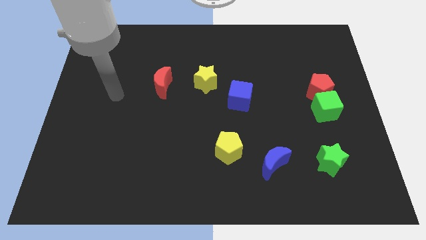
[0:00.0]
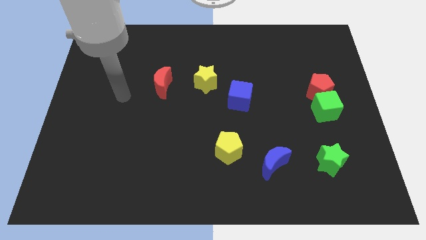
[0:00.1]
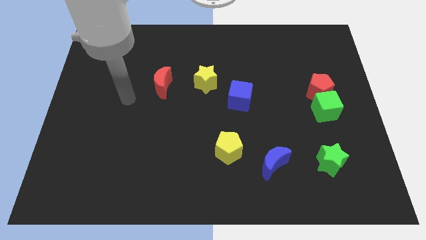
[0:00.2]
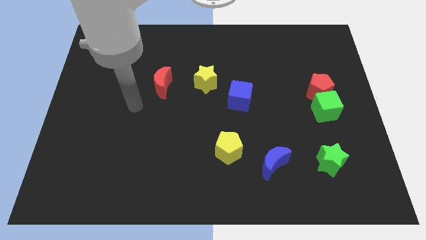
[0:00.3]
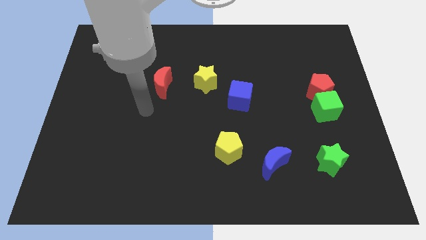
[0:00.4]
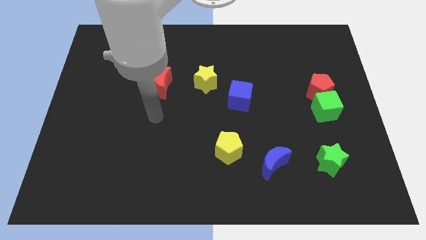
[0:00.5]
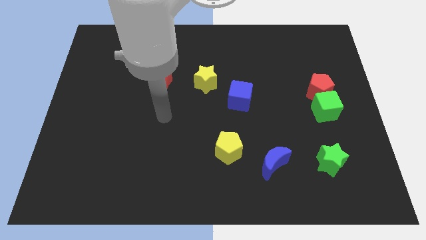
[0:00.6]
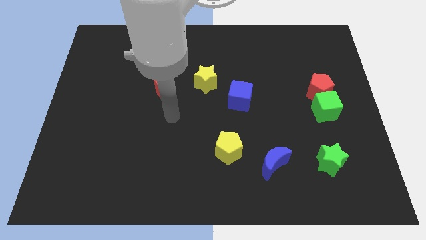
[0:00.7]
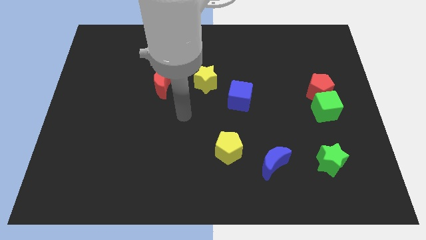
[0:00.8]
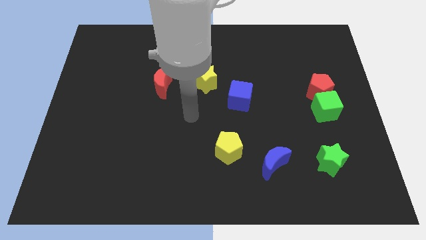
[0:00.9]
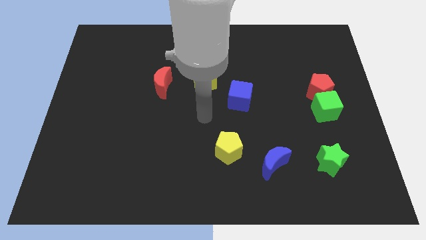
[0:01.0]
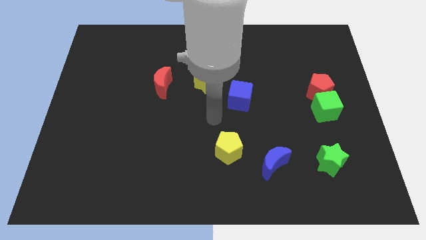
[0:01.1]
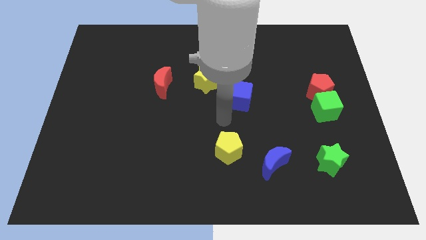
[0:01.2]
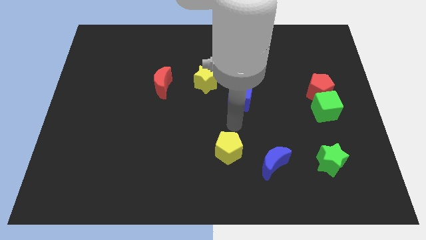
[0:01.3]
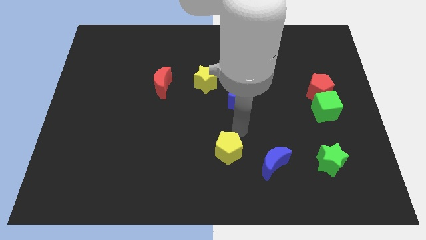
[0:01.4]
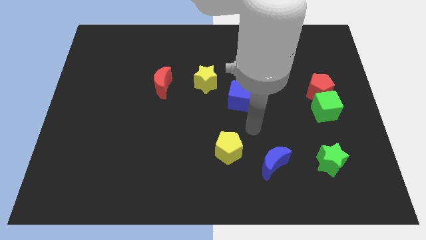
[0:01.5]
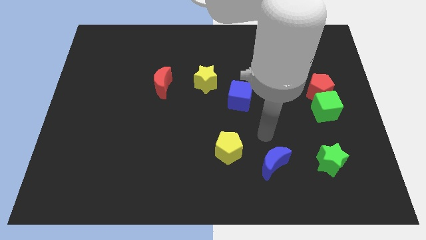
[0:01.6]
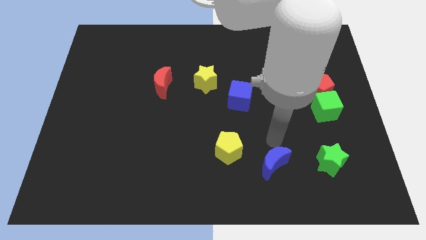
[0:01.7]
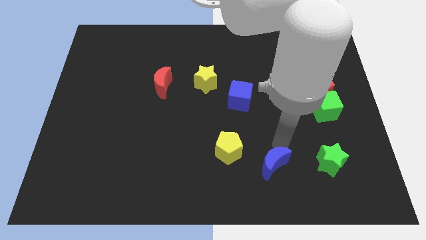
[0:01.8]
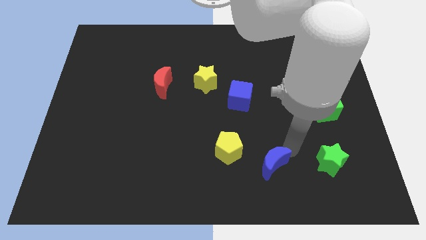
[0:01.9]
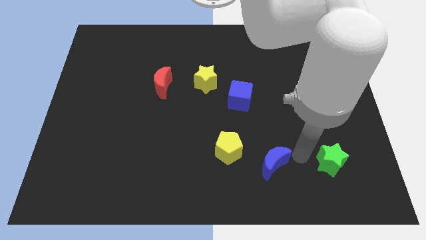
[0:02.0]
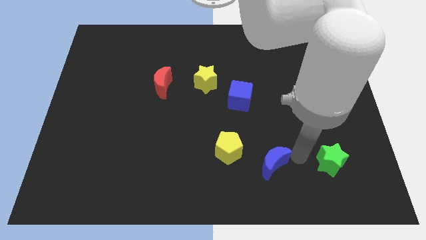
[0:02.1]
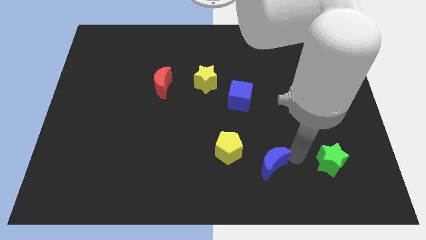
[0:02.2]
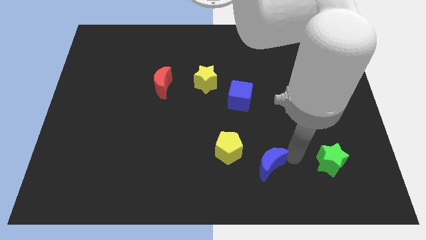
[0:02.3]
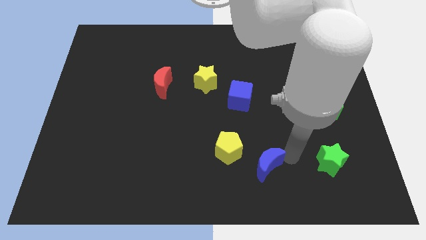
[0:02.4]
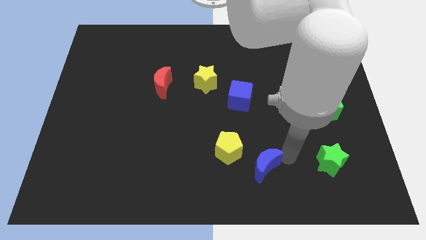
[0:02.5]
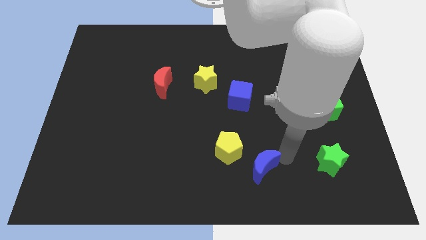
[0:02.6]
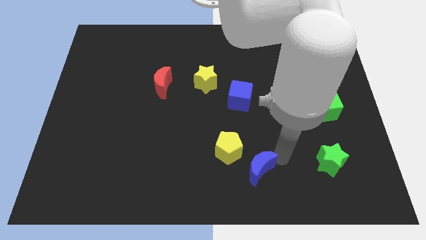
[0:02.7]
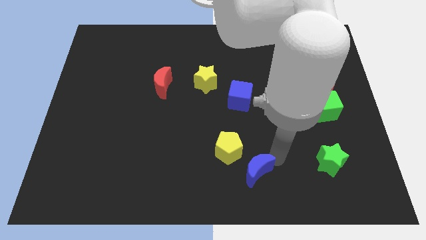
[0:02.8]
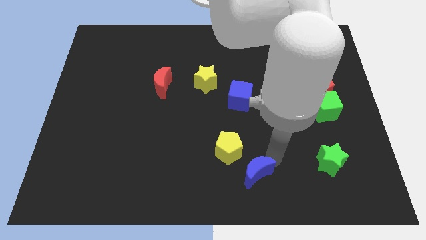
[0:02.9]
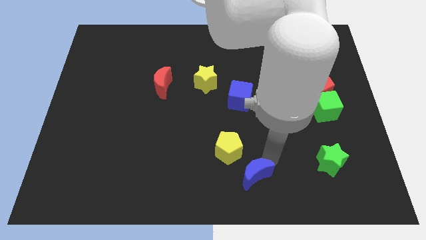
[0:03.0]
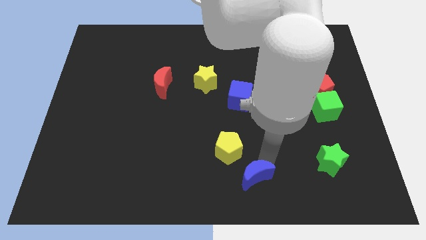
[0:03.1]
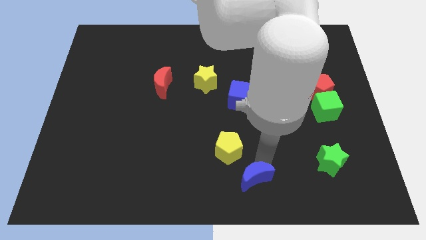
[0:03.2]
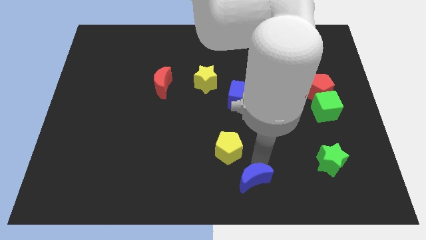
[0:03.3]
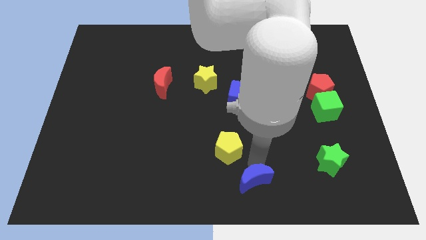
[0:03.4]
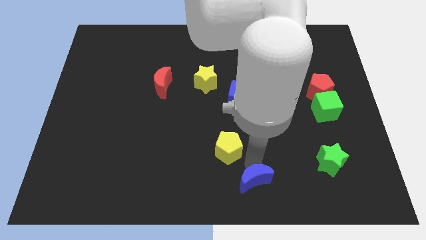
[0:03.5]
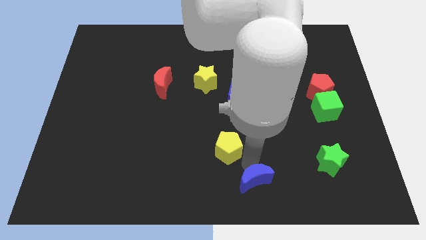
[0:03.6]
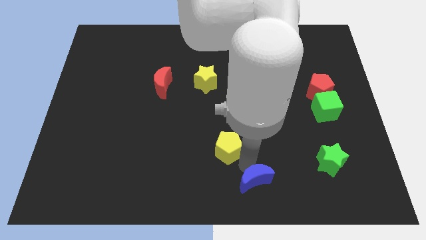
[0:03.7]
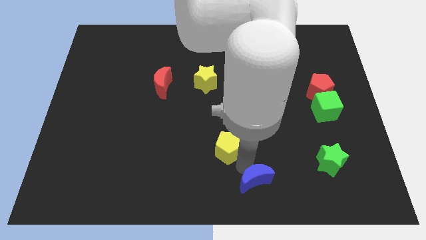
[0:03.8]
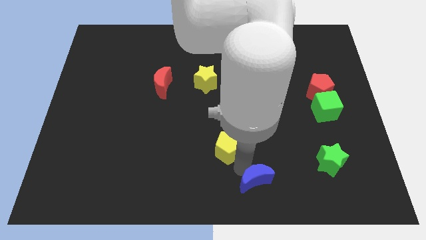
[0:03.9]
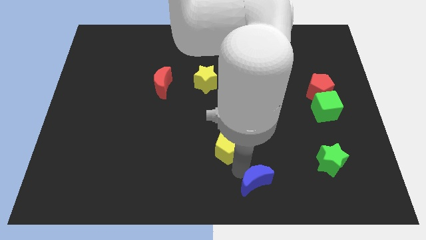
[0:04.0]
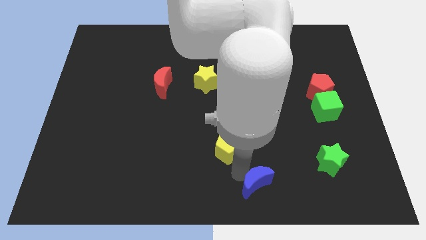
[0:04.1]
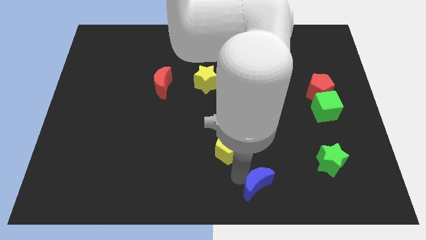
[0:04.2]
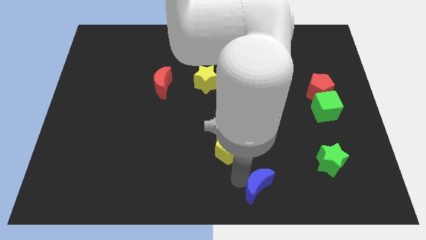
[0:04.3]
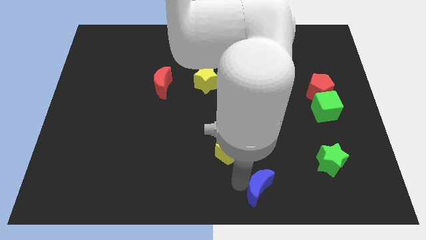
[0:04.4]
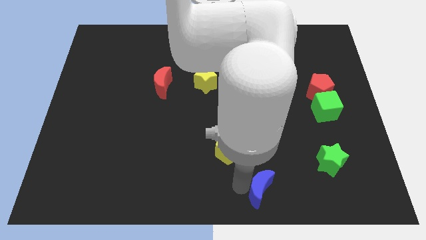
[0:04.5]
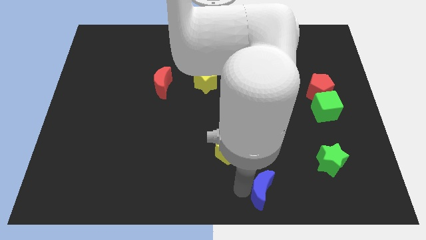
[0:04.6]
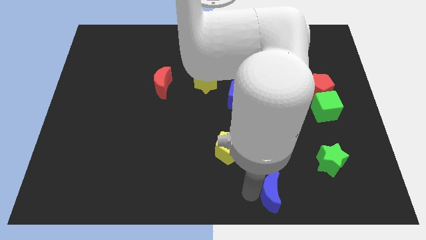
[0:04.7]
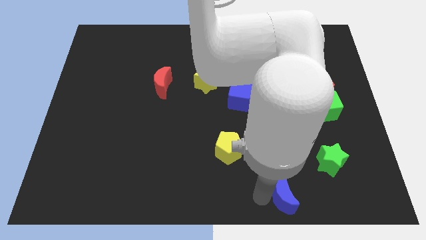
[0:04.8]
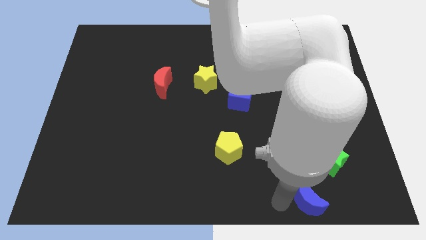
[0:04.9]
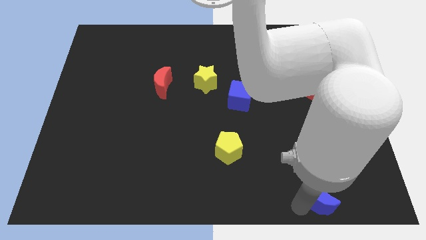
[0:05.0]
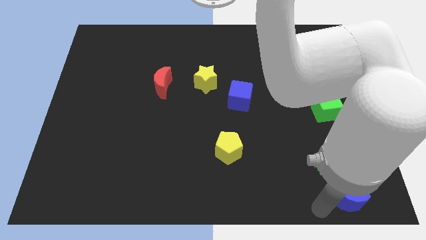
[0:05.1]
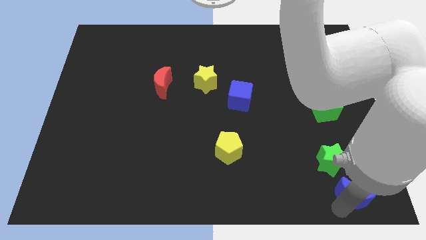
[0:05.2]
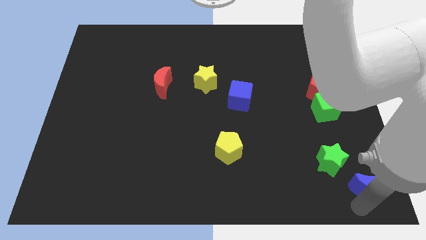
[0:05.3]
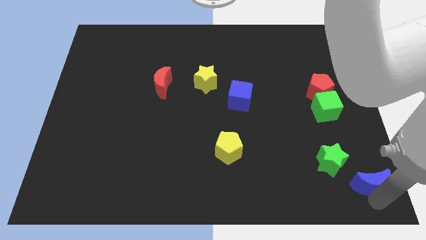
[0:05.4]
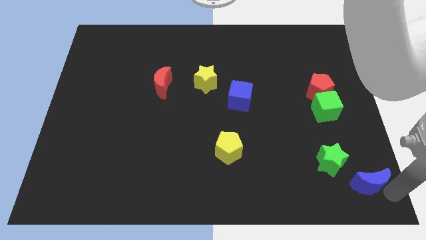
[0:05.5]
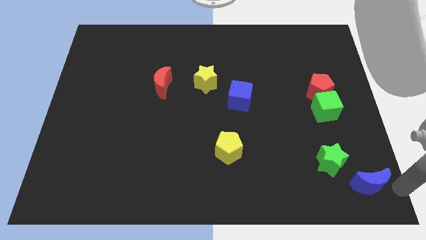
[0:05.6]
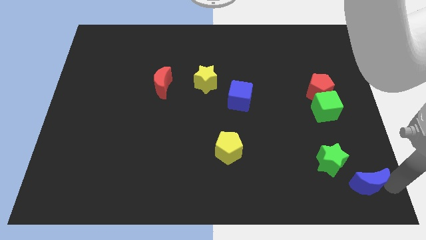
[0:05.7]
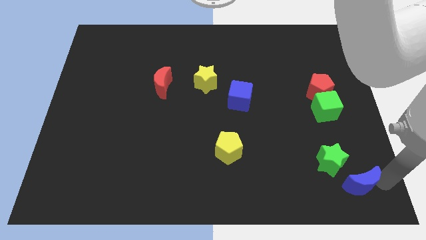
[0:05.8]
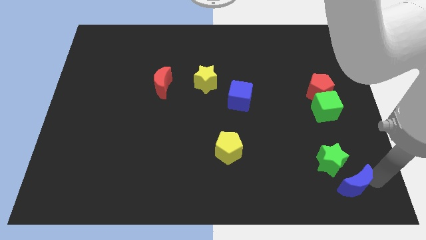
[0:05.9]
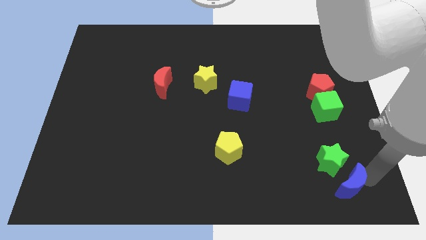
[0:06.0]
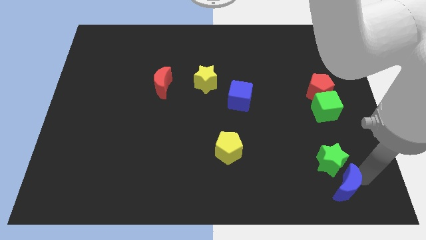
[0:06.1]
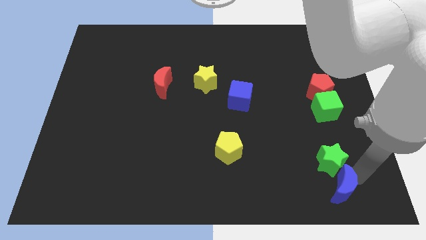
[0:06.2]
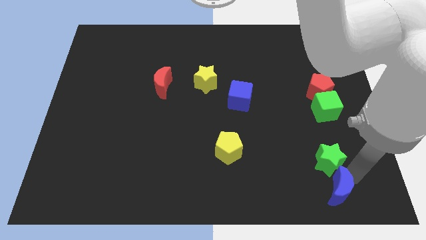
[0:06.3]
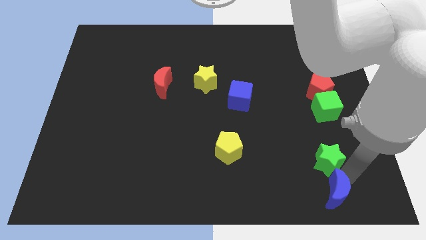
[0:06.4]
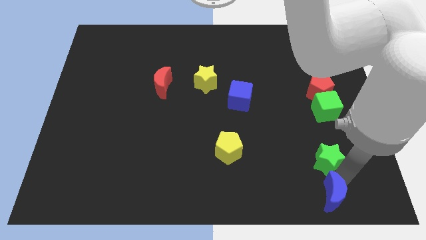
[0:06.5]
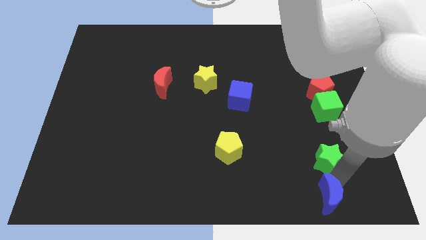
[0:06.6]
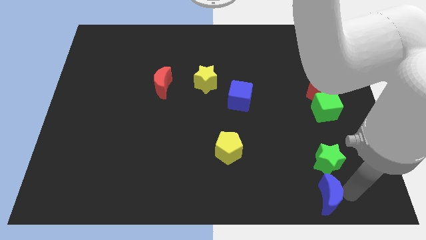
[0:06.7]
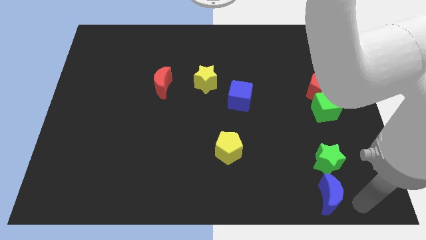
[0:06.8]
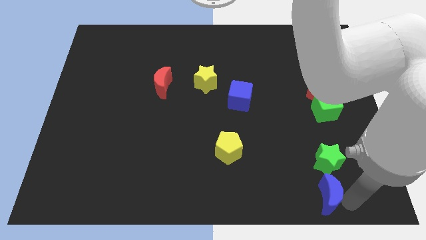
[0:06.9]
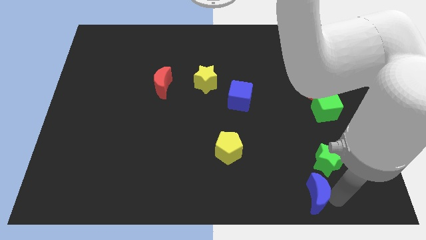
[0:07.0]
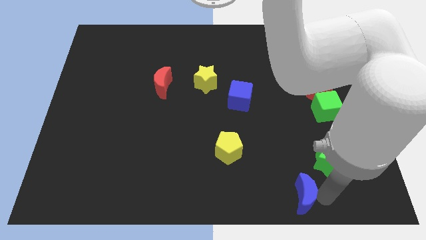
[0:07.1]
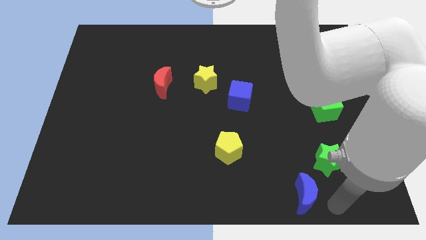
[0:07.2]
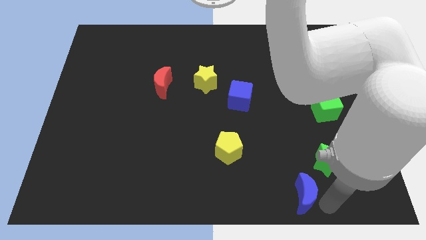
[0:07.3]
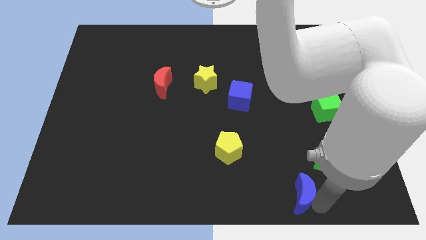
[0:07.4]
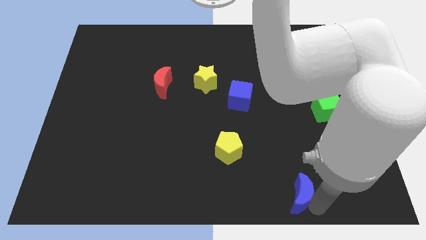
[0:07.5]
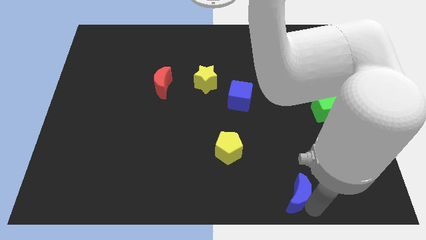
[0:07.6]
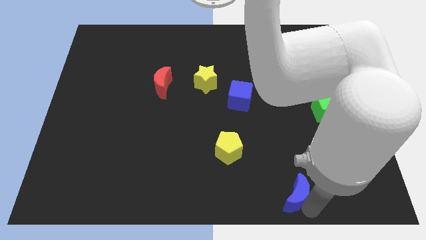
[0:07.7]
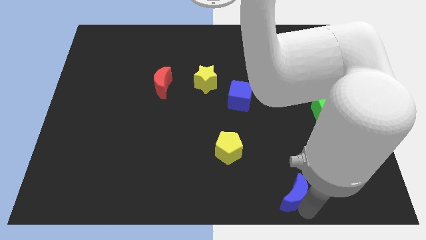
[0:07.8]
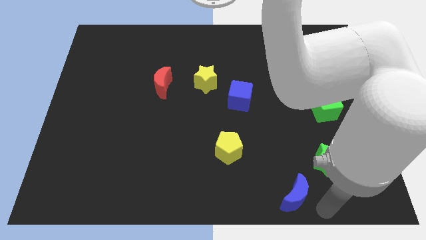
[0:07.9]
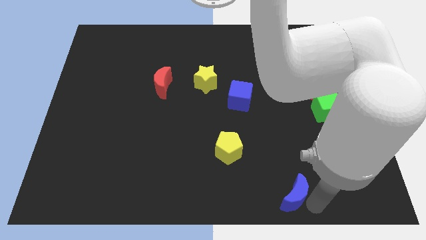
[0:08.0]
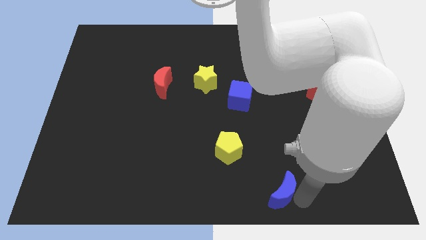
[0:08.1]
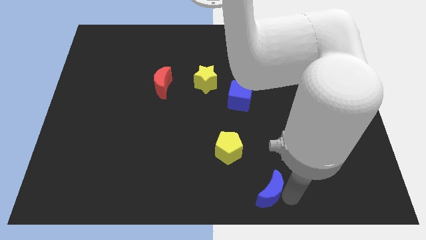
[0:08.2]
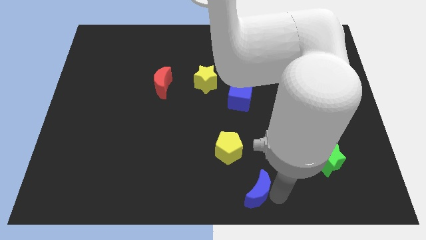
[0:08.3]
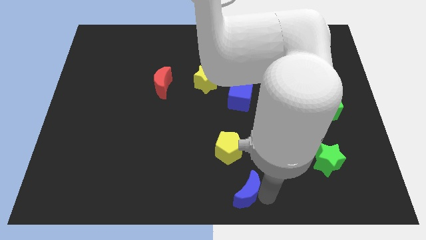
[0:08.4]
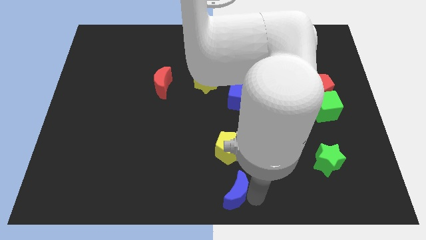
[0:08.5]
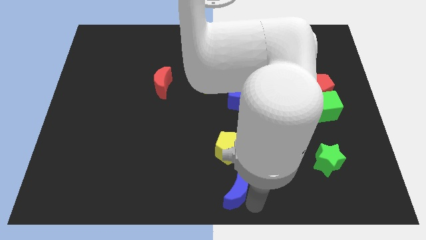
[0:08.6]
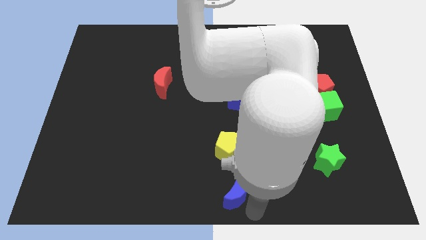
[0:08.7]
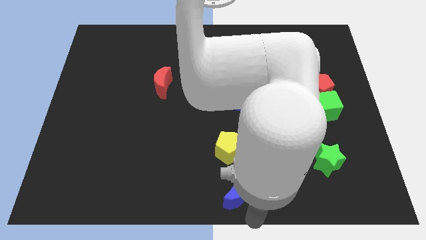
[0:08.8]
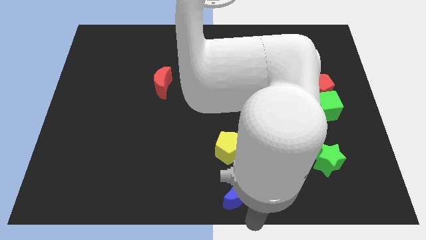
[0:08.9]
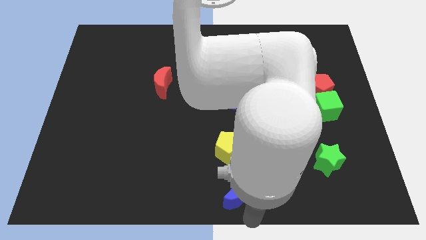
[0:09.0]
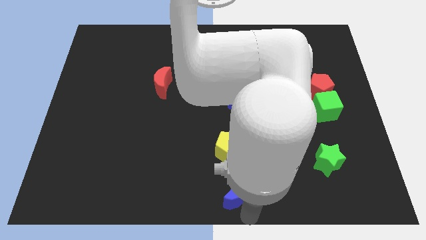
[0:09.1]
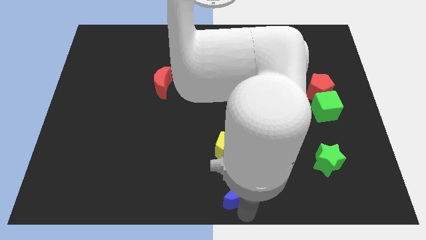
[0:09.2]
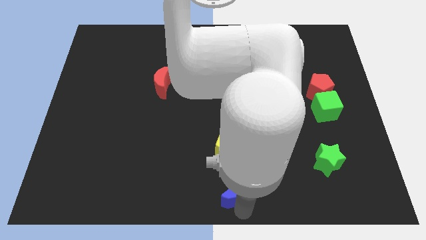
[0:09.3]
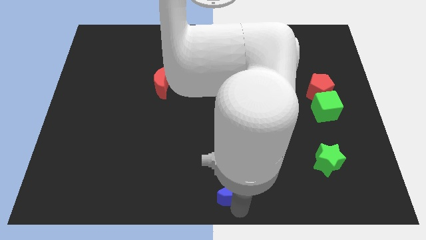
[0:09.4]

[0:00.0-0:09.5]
slightly slide the blue moon left
